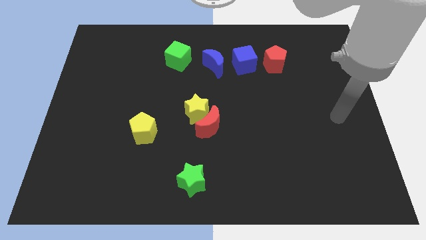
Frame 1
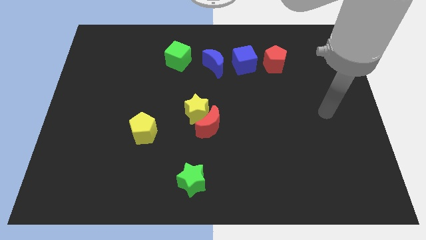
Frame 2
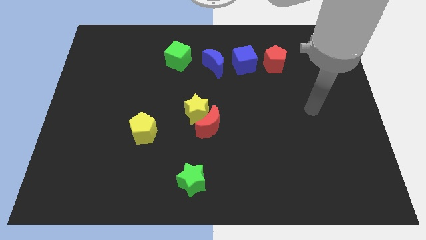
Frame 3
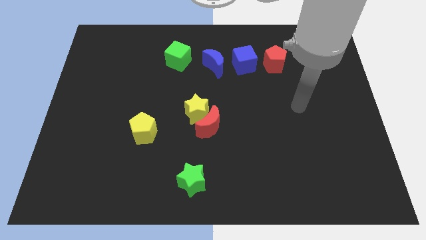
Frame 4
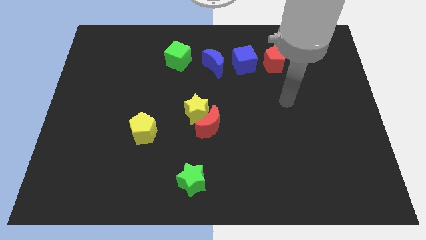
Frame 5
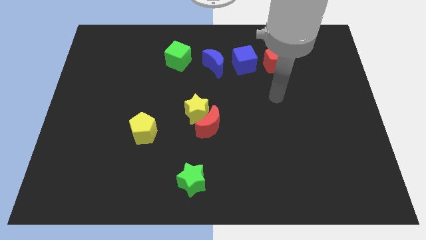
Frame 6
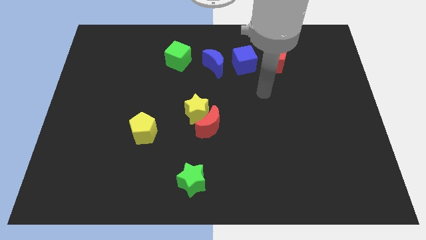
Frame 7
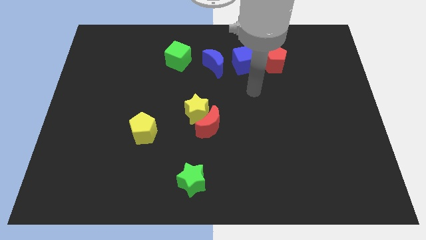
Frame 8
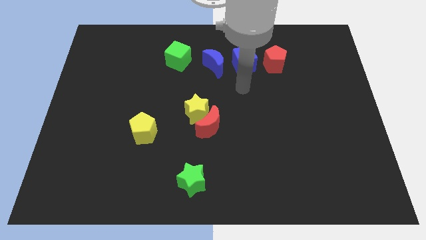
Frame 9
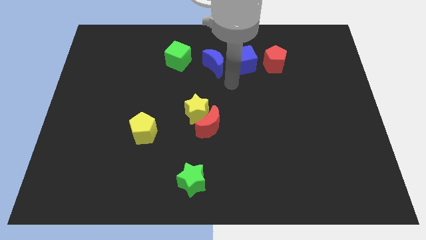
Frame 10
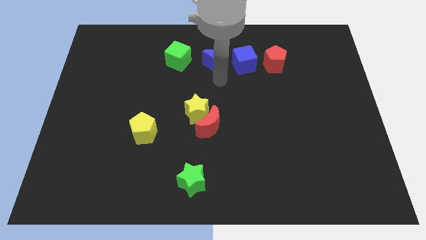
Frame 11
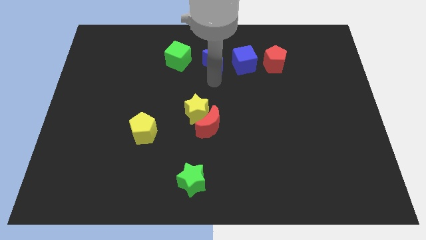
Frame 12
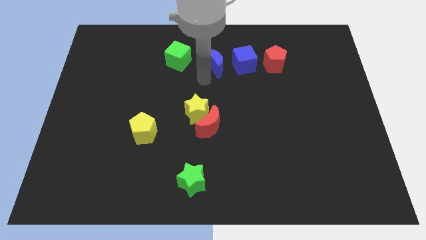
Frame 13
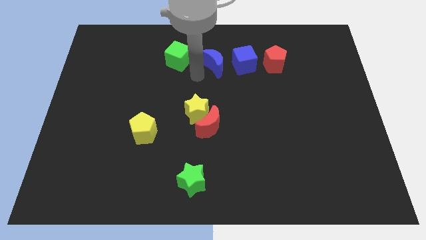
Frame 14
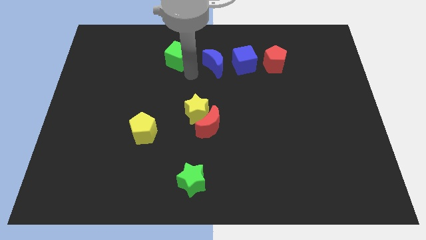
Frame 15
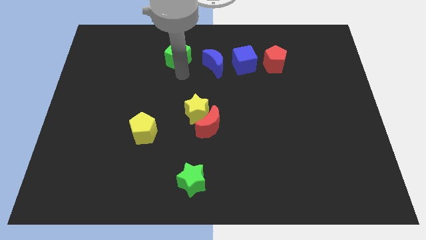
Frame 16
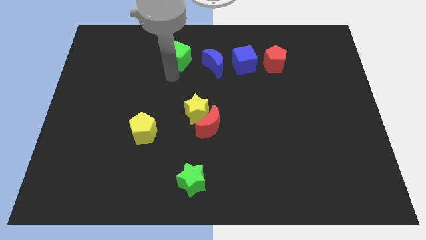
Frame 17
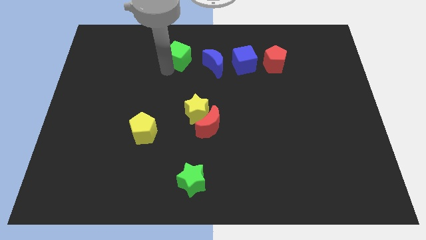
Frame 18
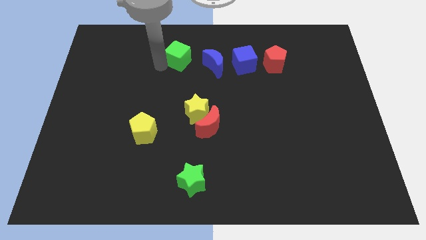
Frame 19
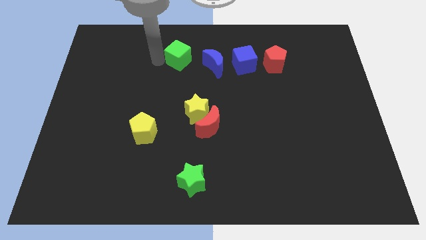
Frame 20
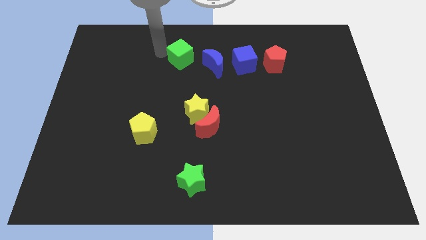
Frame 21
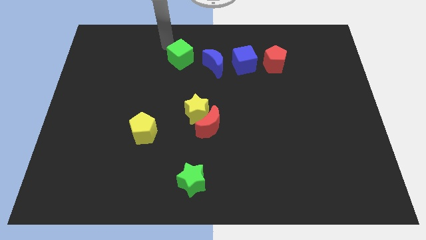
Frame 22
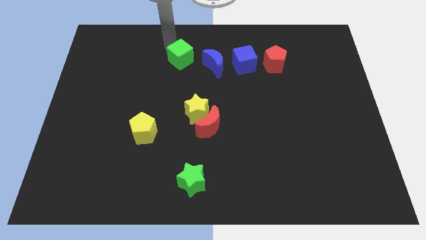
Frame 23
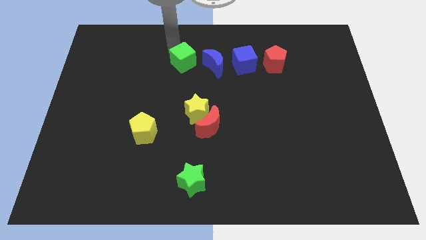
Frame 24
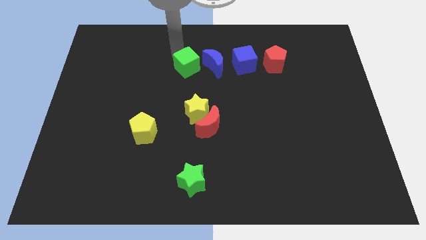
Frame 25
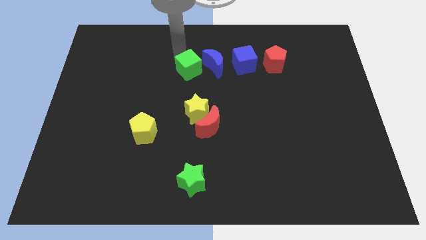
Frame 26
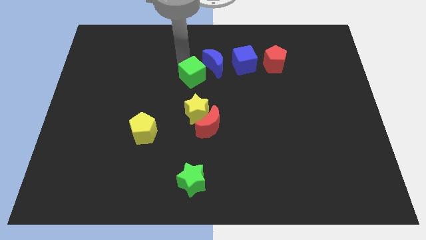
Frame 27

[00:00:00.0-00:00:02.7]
slightly move the green cube downwards and right diagonally

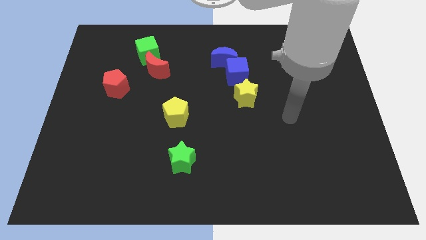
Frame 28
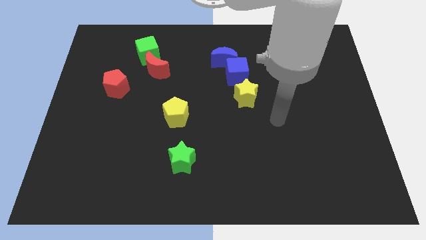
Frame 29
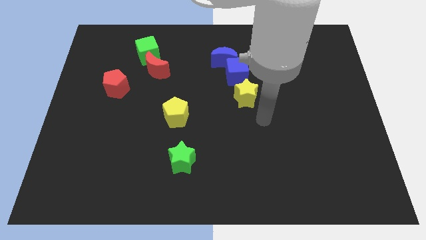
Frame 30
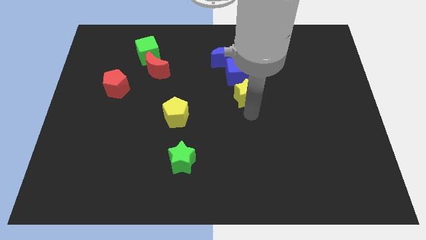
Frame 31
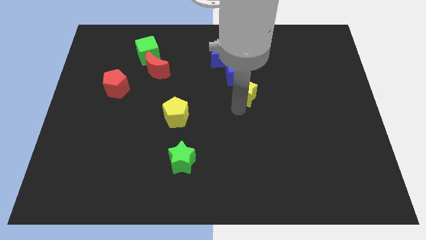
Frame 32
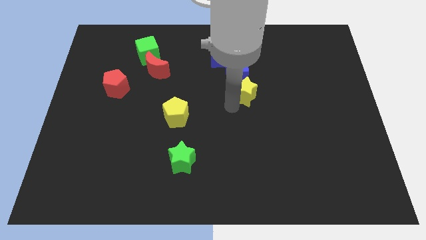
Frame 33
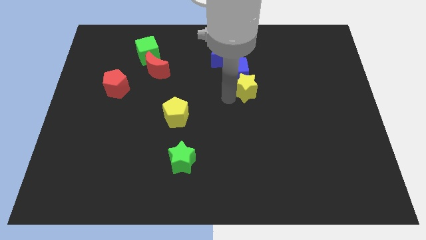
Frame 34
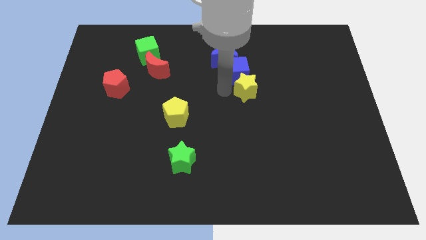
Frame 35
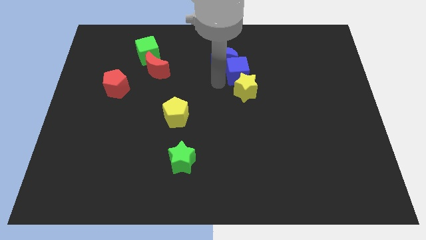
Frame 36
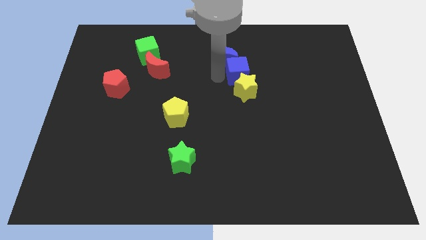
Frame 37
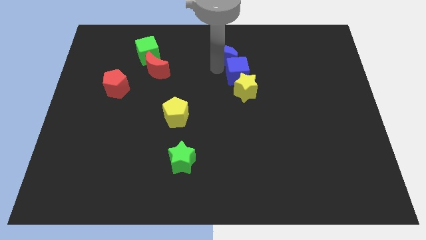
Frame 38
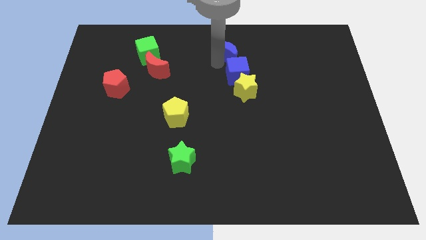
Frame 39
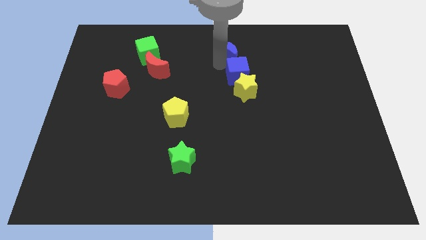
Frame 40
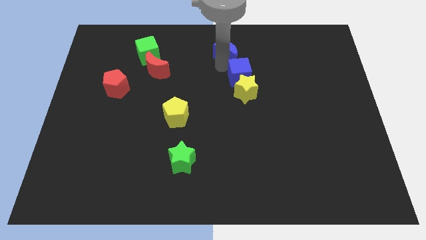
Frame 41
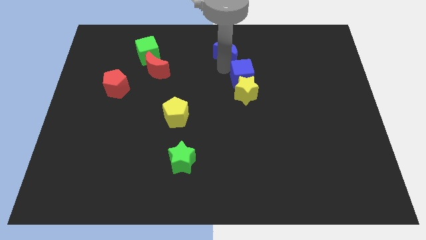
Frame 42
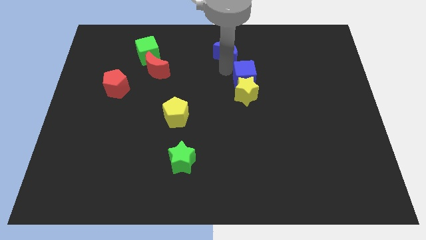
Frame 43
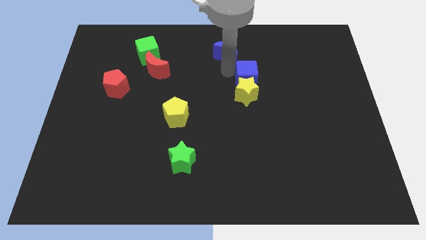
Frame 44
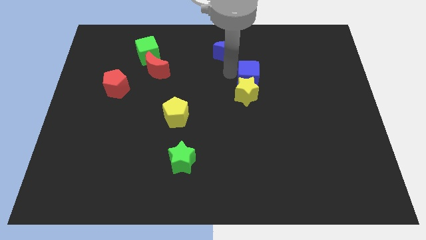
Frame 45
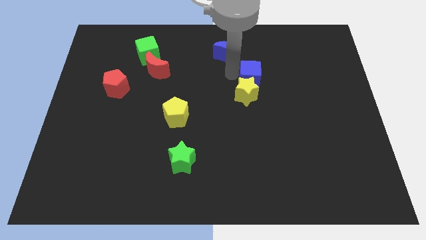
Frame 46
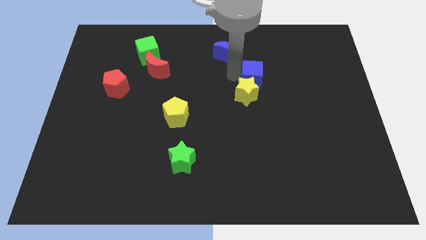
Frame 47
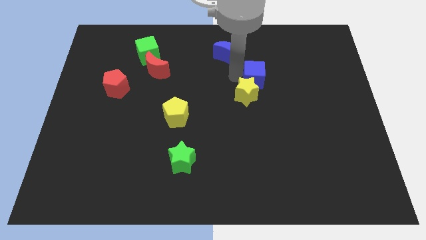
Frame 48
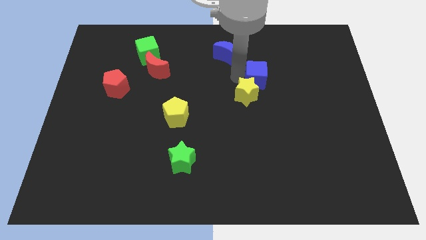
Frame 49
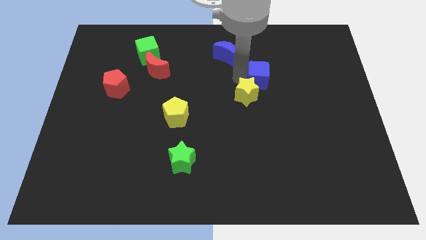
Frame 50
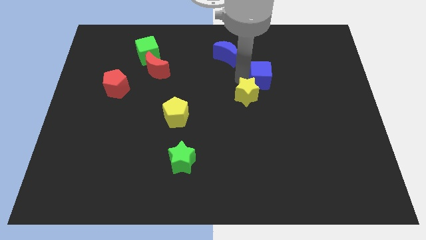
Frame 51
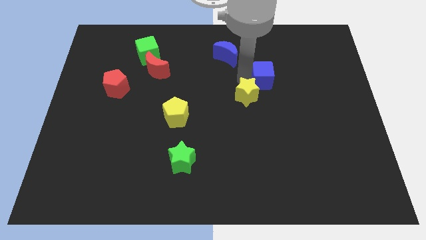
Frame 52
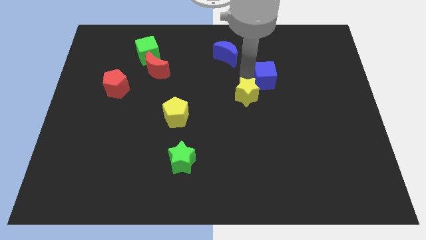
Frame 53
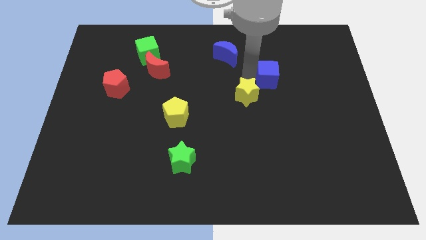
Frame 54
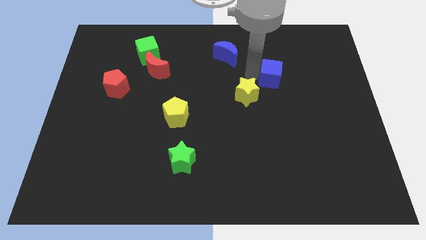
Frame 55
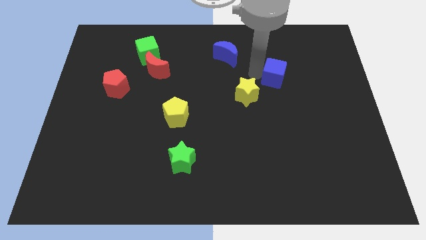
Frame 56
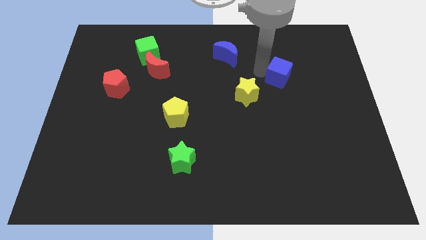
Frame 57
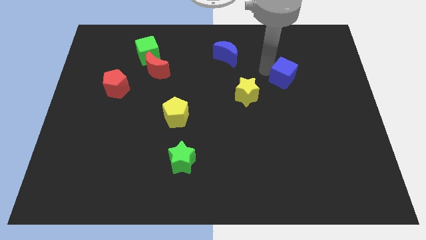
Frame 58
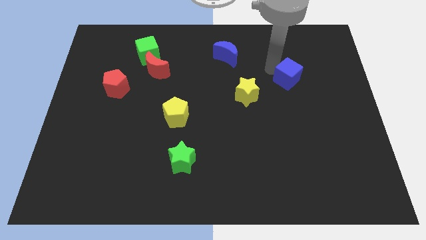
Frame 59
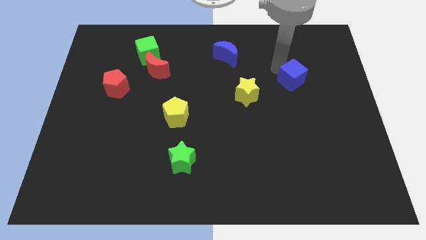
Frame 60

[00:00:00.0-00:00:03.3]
push the blue cube a bit downwards and to the right diagonally

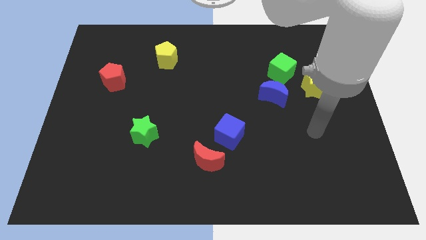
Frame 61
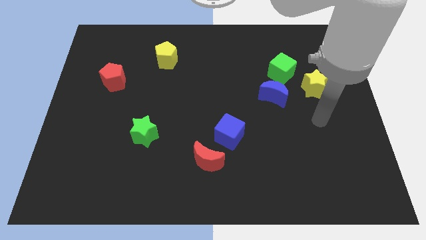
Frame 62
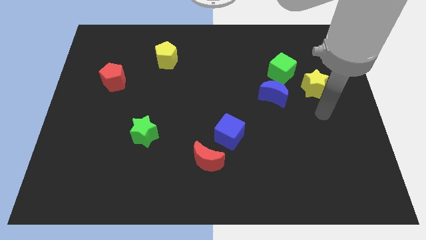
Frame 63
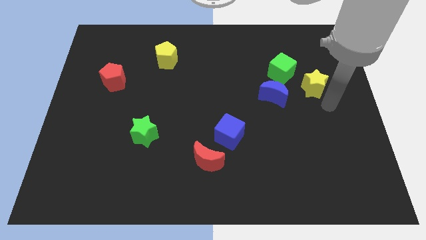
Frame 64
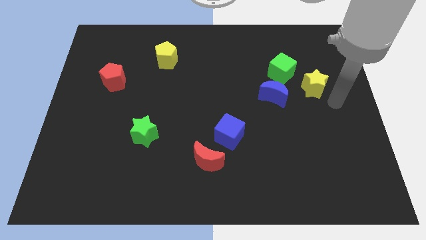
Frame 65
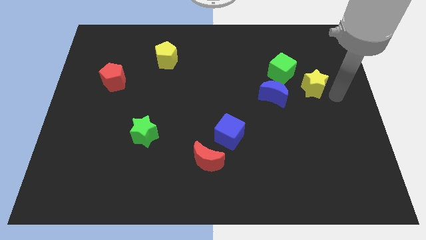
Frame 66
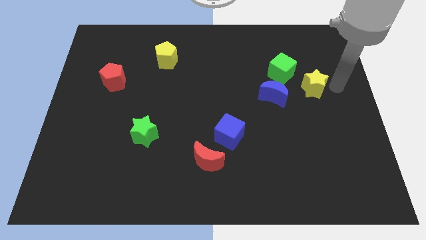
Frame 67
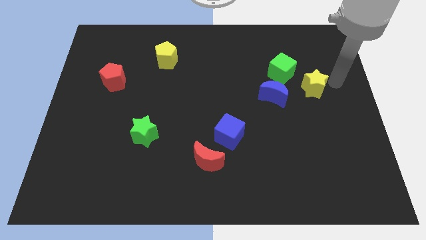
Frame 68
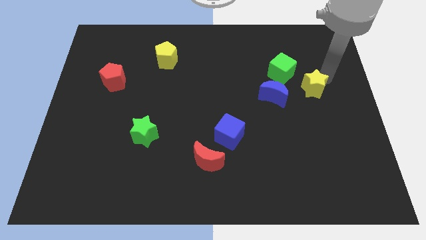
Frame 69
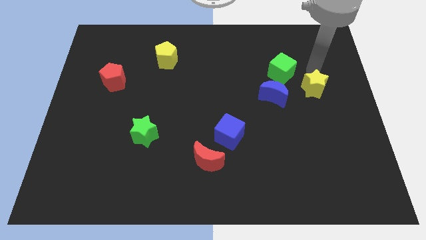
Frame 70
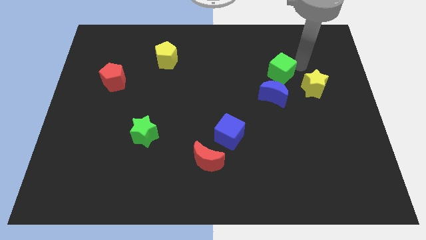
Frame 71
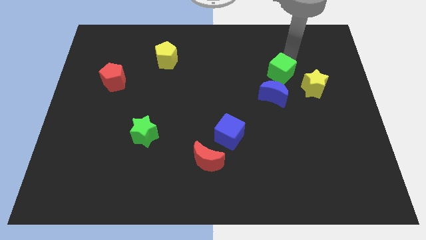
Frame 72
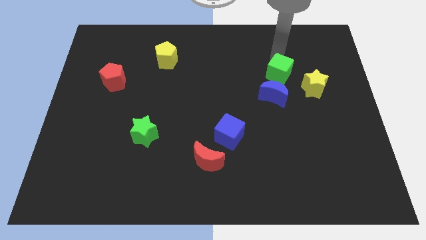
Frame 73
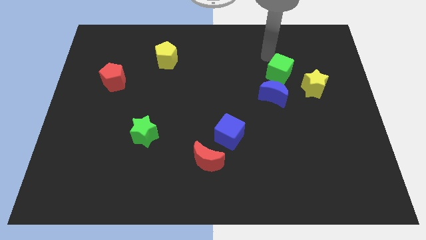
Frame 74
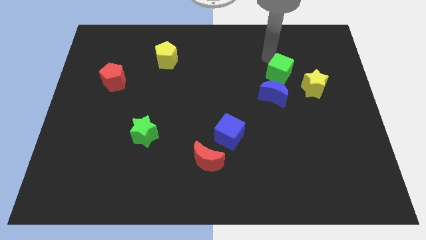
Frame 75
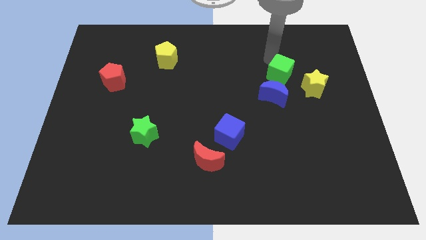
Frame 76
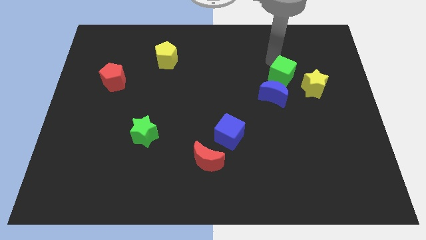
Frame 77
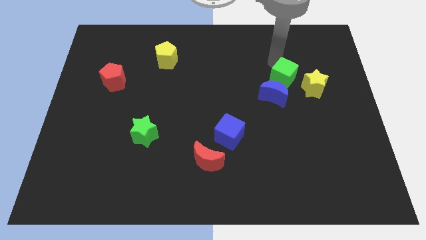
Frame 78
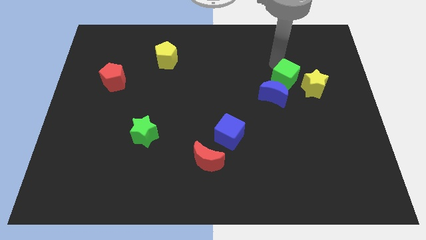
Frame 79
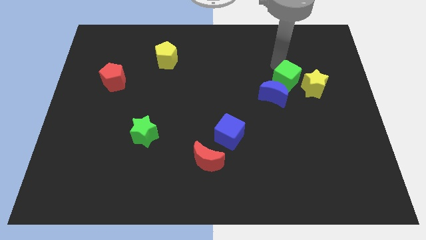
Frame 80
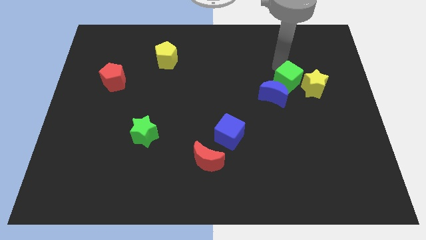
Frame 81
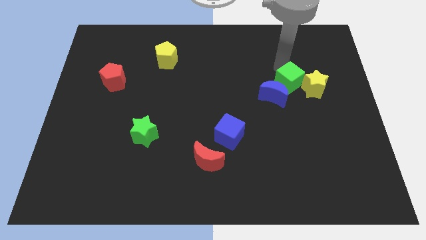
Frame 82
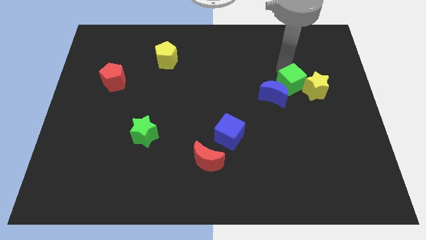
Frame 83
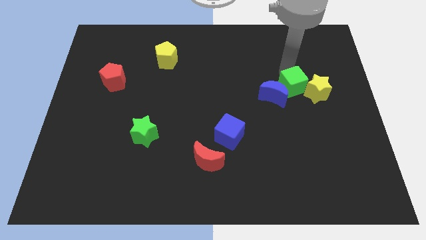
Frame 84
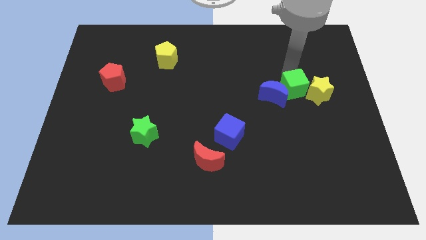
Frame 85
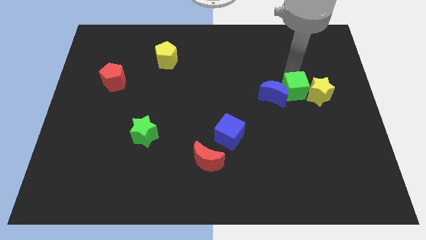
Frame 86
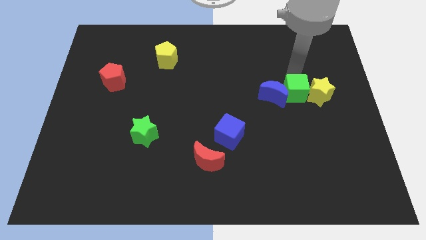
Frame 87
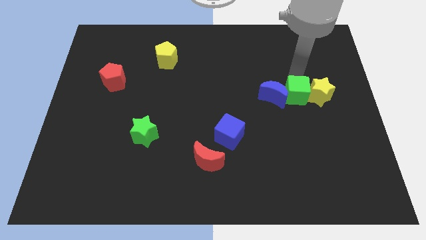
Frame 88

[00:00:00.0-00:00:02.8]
push the green cube slightly down
